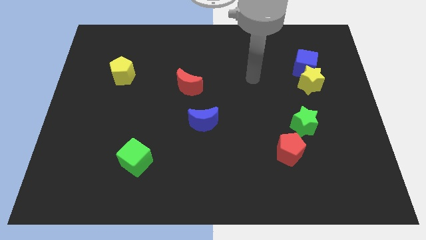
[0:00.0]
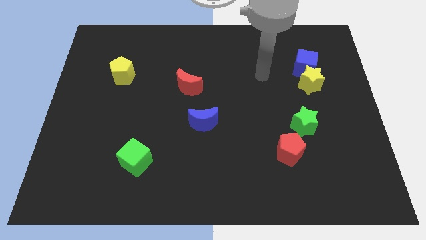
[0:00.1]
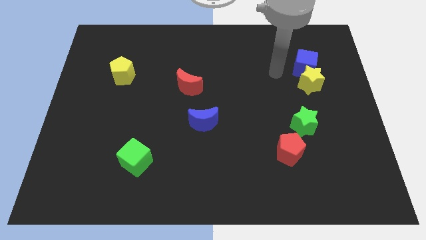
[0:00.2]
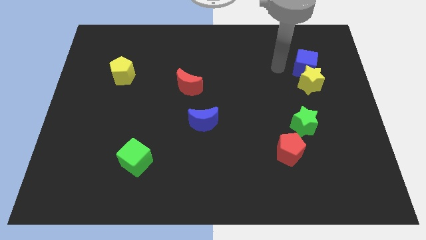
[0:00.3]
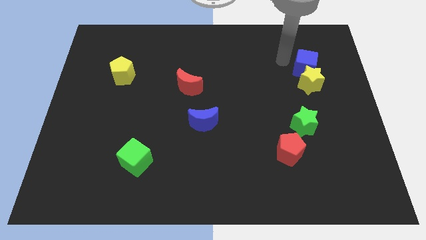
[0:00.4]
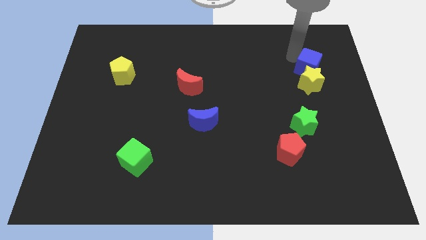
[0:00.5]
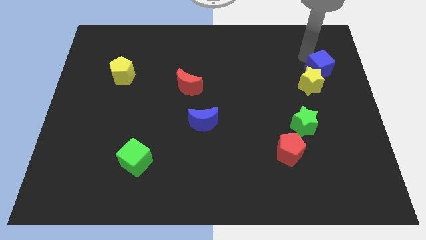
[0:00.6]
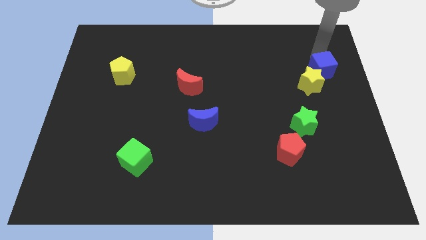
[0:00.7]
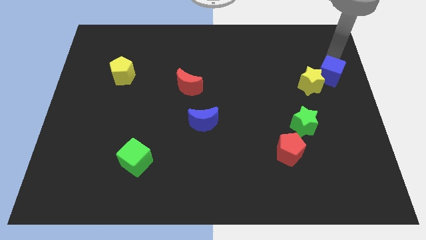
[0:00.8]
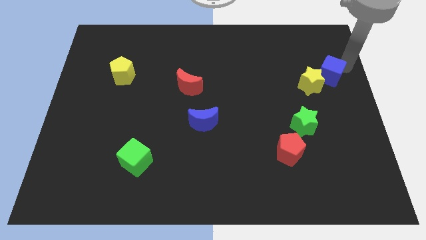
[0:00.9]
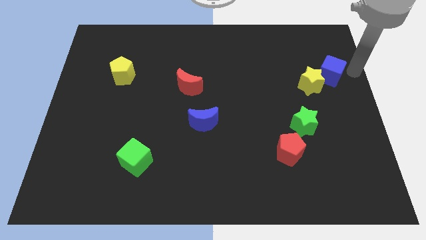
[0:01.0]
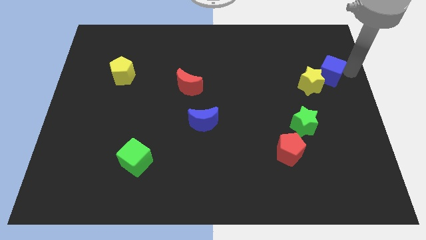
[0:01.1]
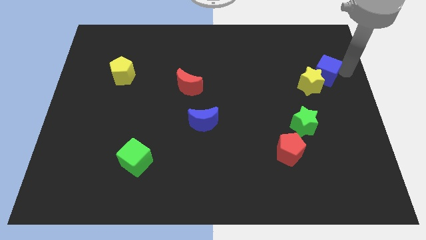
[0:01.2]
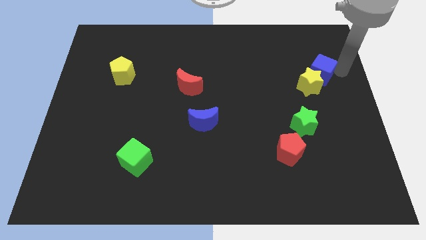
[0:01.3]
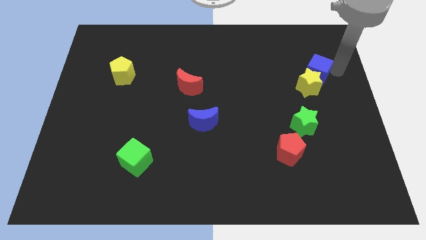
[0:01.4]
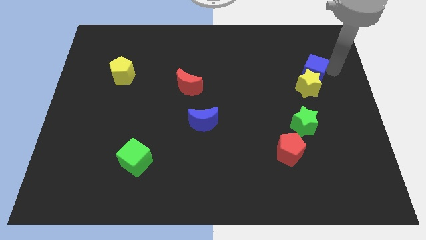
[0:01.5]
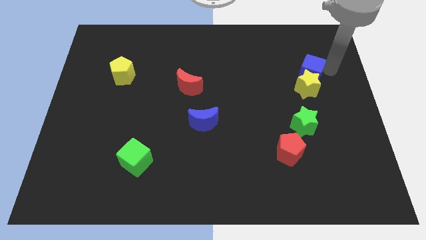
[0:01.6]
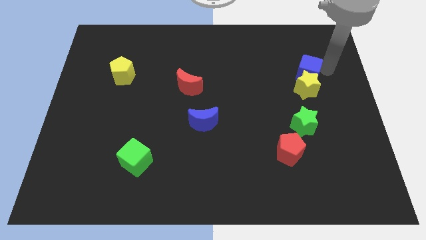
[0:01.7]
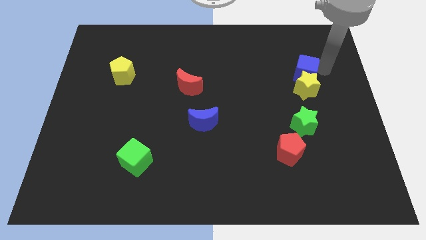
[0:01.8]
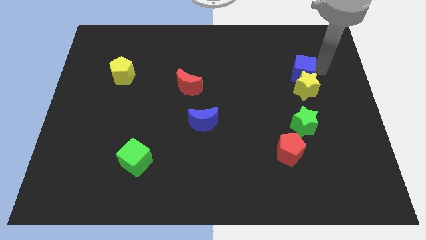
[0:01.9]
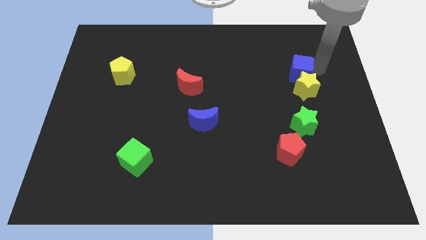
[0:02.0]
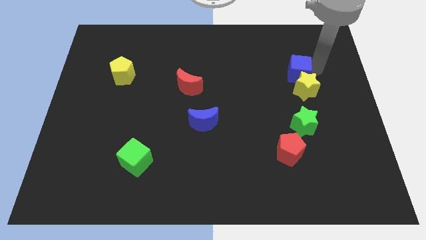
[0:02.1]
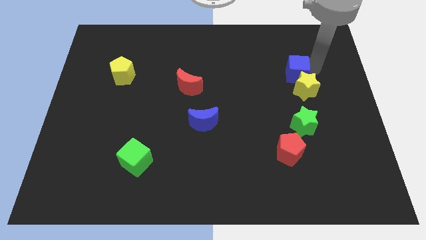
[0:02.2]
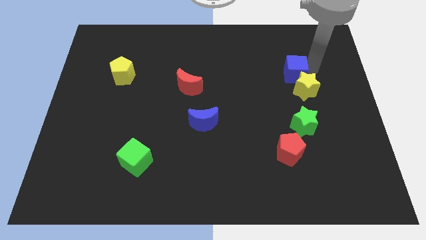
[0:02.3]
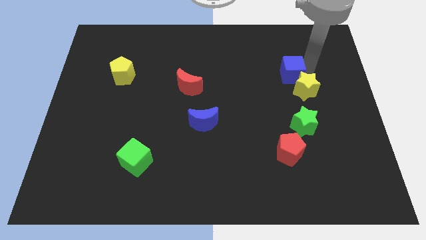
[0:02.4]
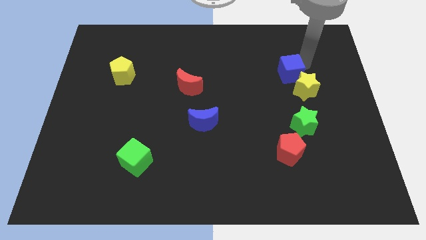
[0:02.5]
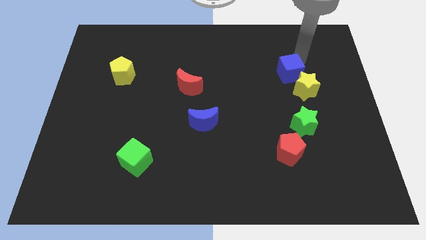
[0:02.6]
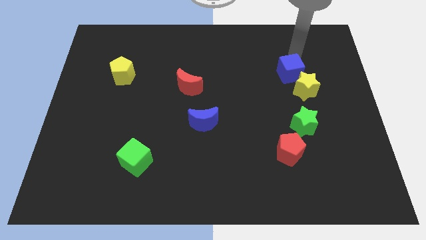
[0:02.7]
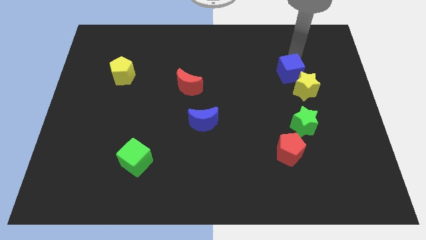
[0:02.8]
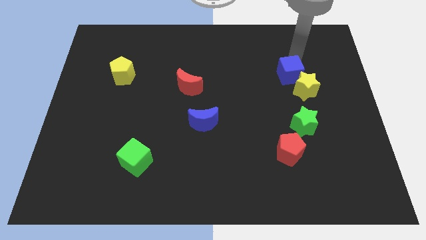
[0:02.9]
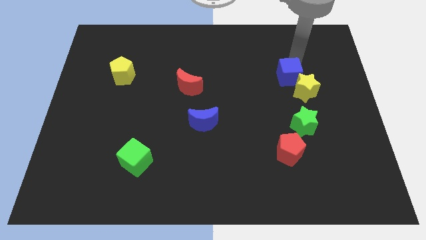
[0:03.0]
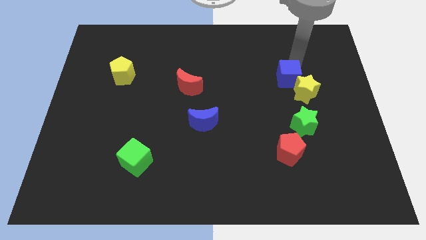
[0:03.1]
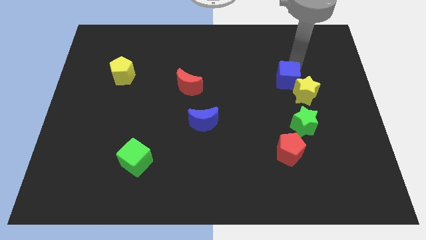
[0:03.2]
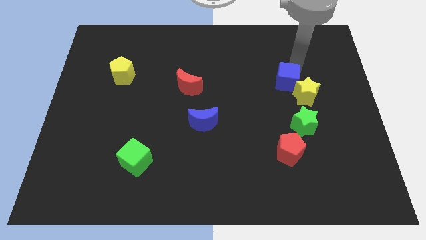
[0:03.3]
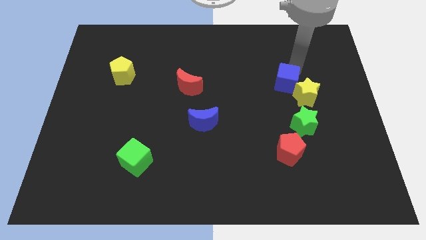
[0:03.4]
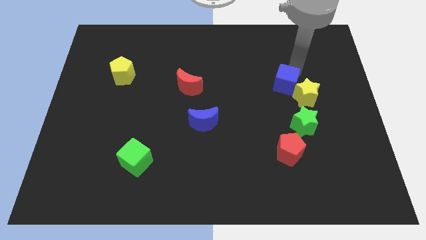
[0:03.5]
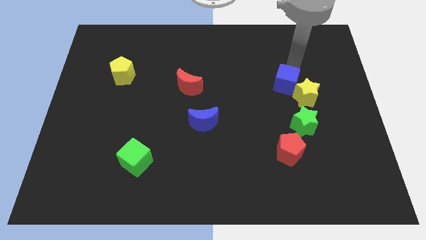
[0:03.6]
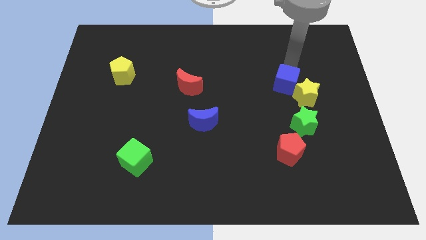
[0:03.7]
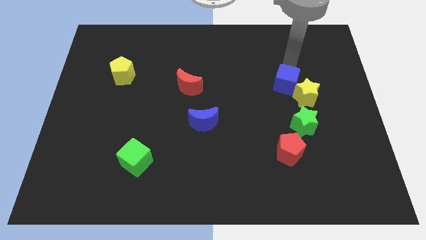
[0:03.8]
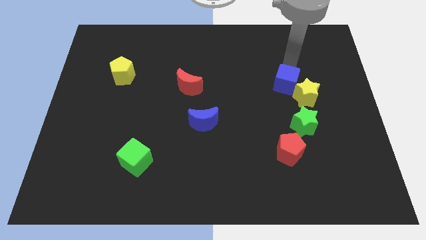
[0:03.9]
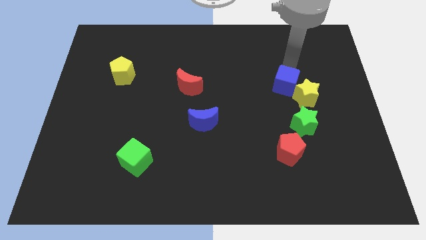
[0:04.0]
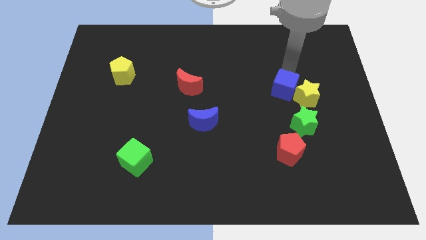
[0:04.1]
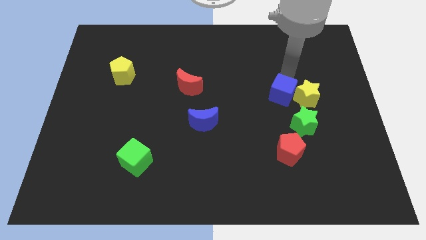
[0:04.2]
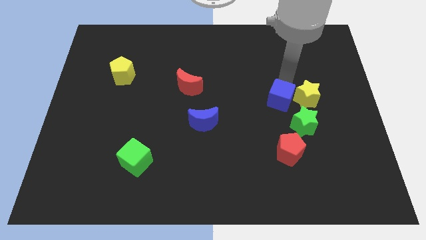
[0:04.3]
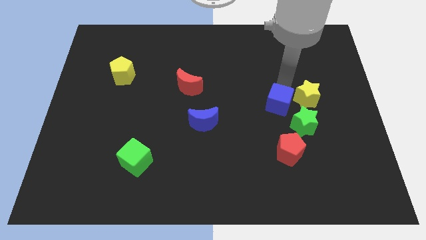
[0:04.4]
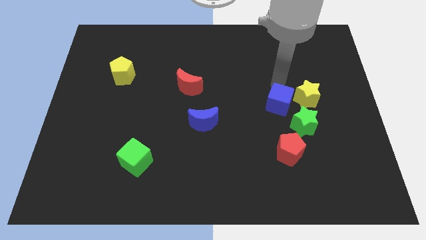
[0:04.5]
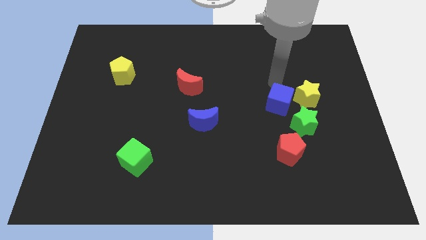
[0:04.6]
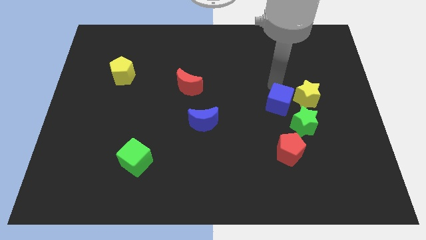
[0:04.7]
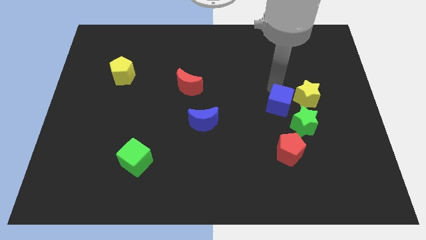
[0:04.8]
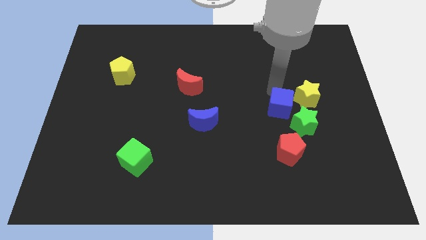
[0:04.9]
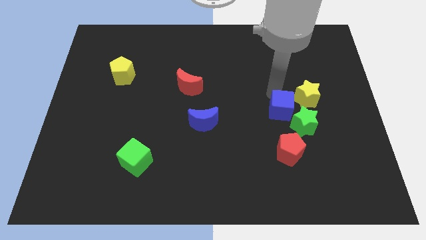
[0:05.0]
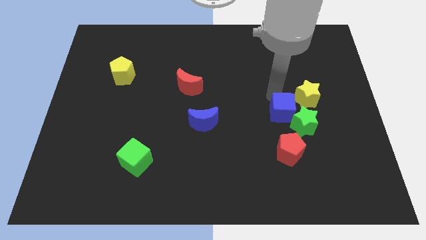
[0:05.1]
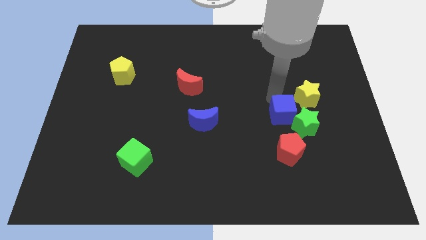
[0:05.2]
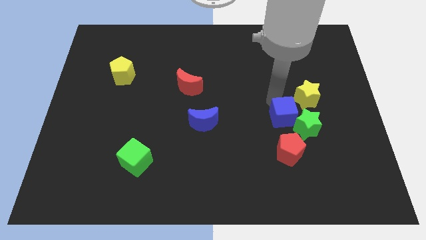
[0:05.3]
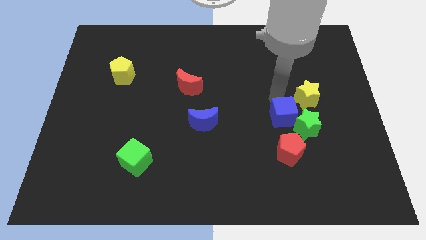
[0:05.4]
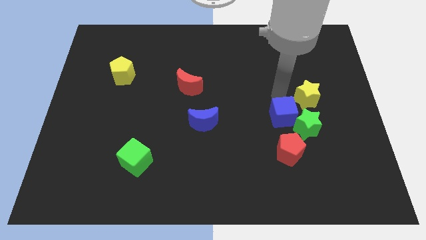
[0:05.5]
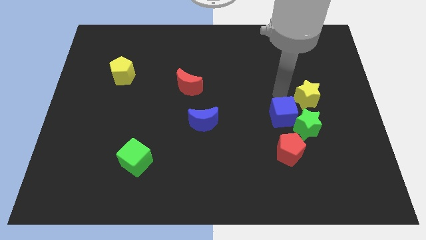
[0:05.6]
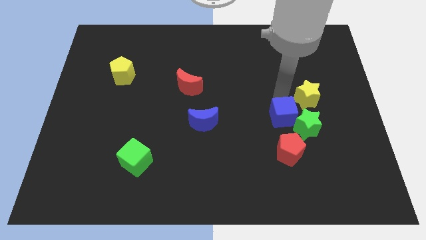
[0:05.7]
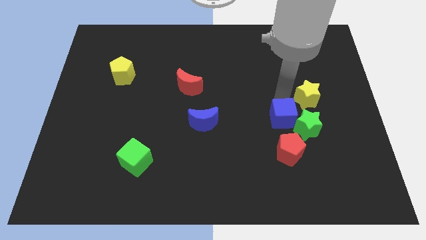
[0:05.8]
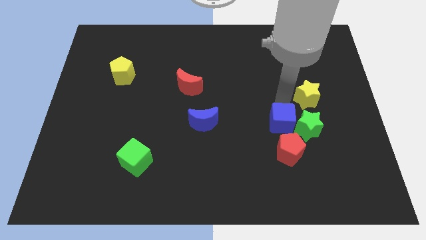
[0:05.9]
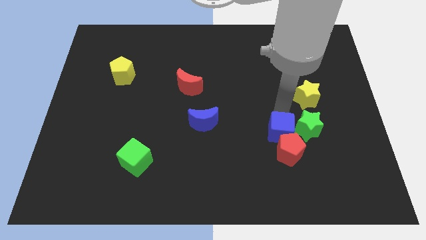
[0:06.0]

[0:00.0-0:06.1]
put the blue cube to the red pentagon

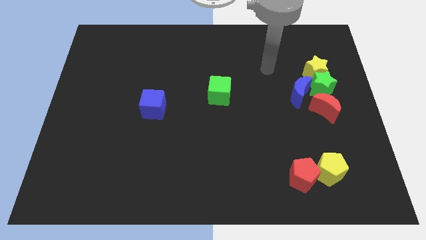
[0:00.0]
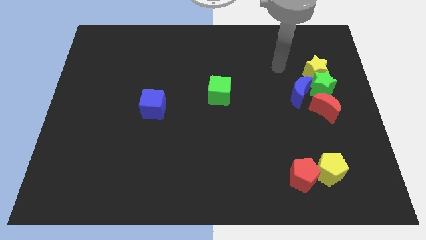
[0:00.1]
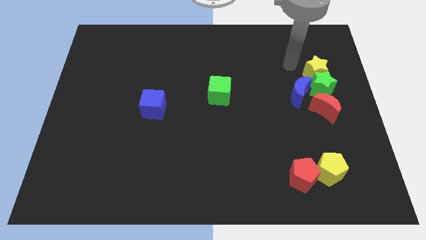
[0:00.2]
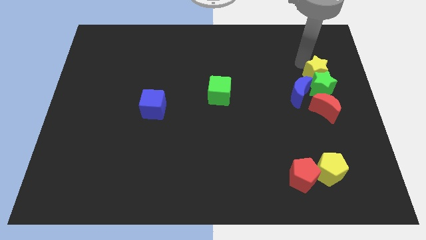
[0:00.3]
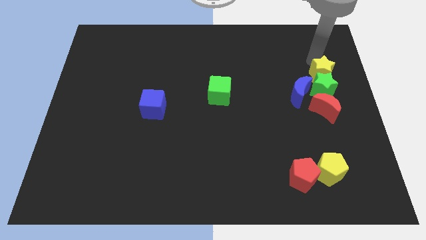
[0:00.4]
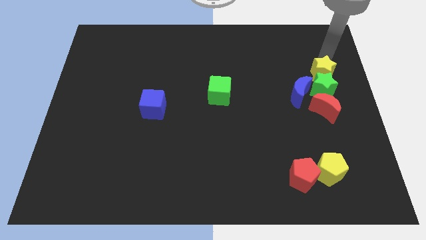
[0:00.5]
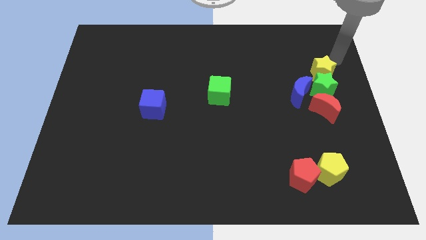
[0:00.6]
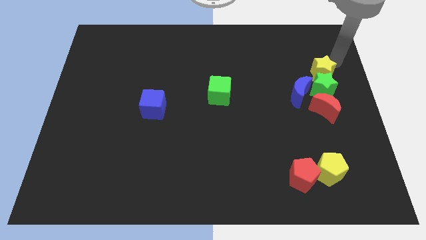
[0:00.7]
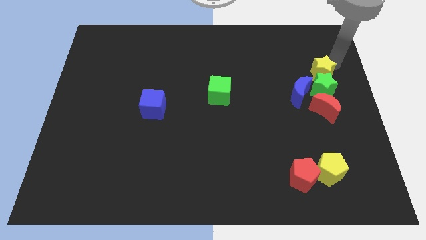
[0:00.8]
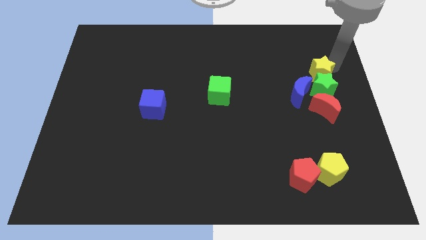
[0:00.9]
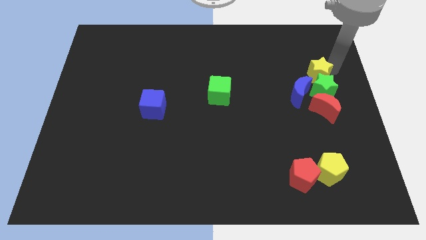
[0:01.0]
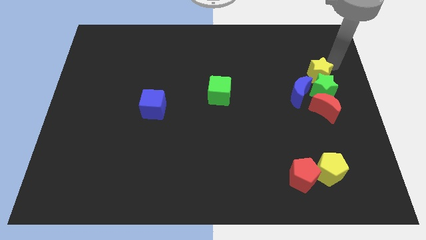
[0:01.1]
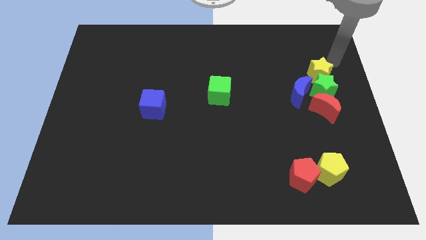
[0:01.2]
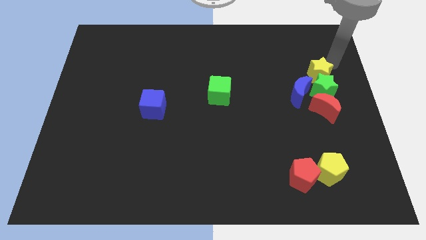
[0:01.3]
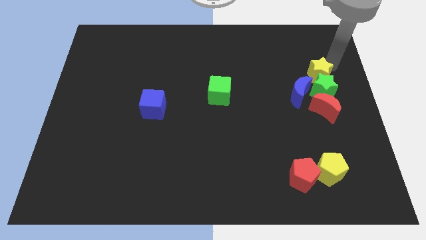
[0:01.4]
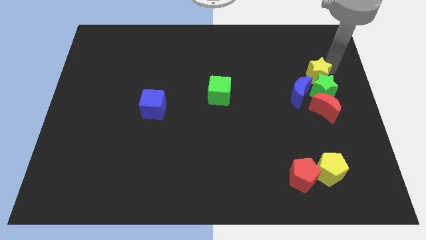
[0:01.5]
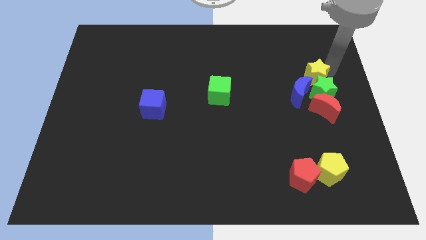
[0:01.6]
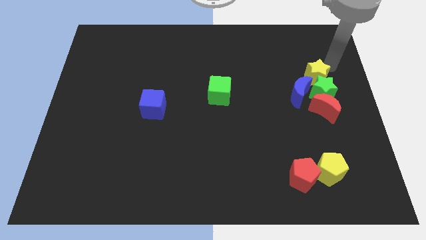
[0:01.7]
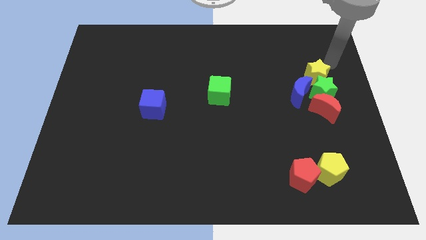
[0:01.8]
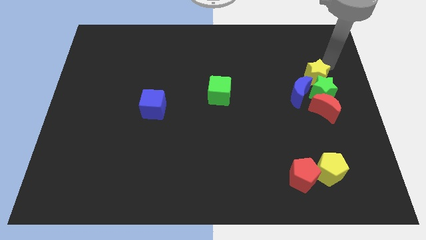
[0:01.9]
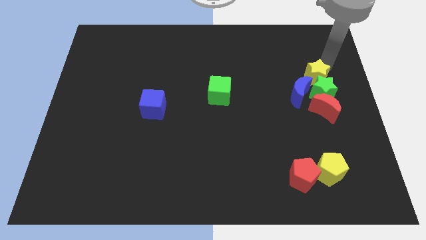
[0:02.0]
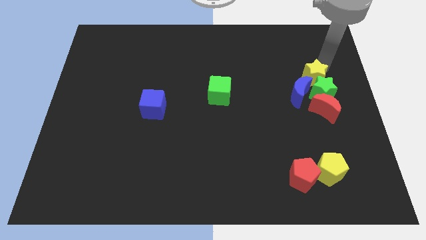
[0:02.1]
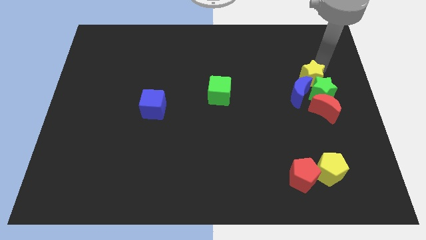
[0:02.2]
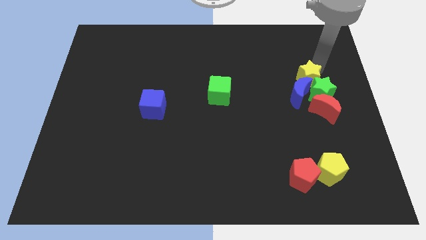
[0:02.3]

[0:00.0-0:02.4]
slide the yellow star towards the blue moon

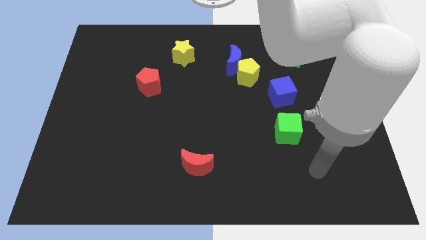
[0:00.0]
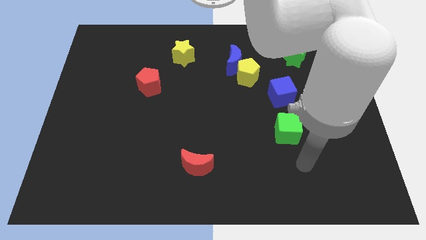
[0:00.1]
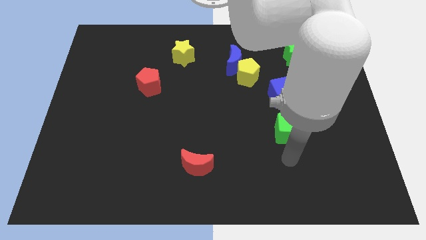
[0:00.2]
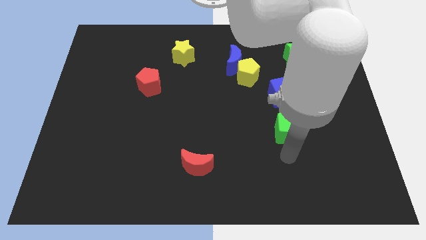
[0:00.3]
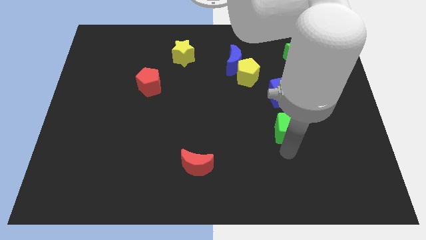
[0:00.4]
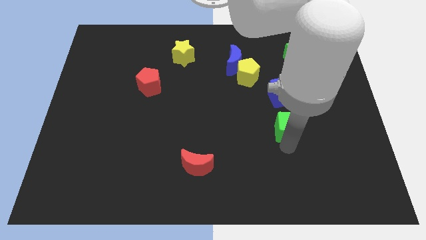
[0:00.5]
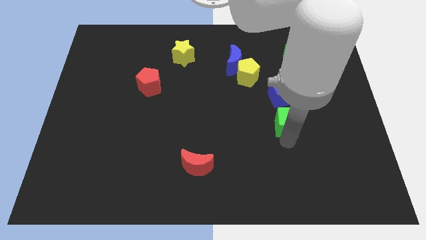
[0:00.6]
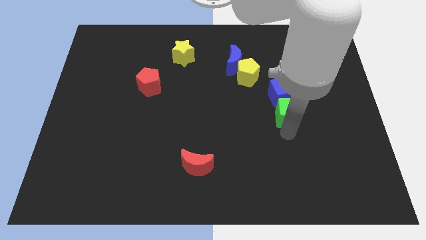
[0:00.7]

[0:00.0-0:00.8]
move the green cube close to the blue cube
